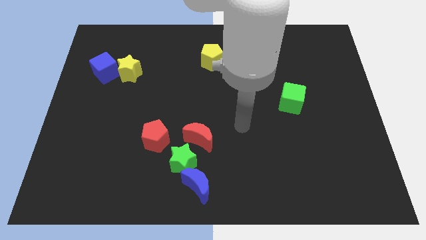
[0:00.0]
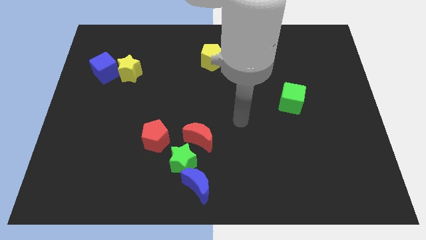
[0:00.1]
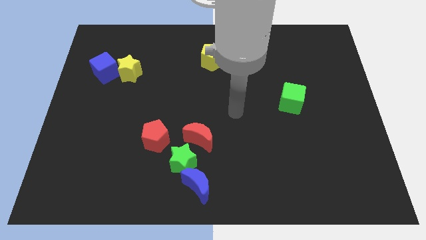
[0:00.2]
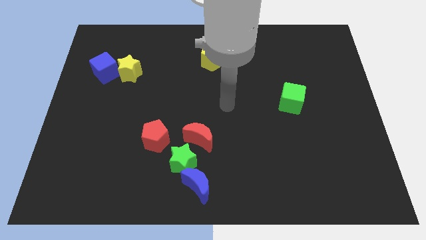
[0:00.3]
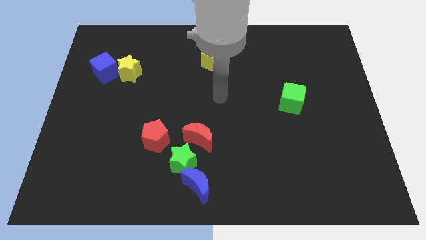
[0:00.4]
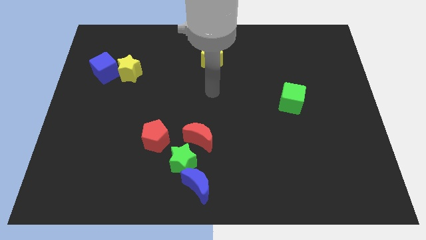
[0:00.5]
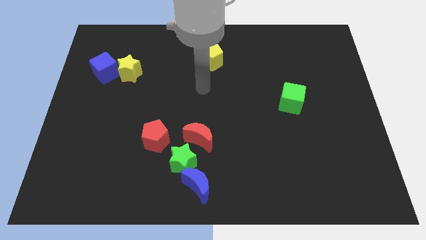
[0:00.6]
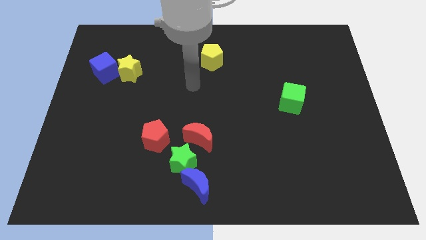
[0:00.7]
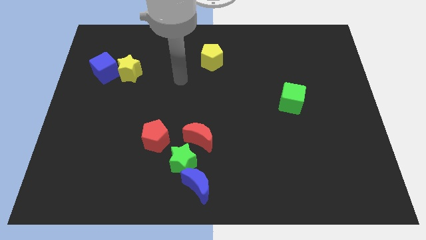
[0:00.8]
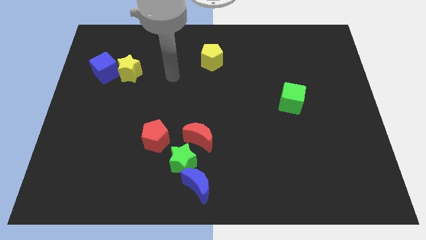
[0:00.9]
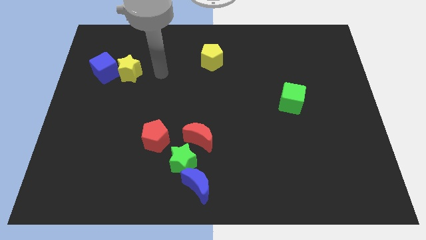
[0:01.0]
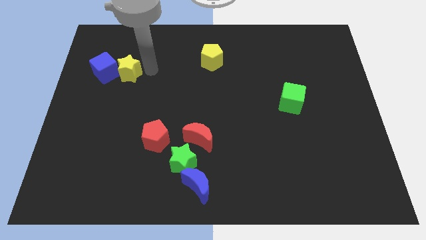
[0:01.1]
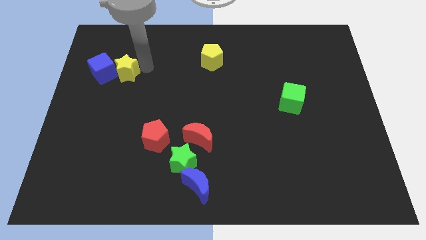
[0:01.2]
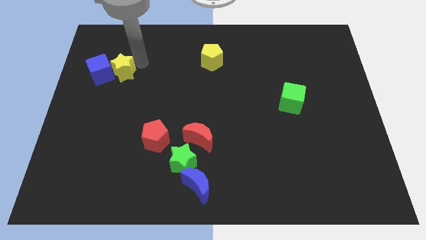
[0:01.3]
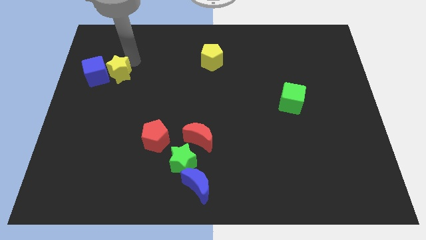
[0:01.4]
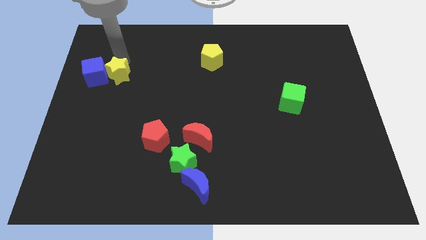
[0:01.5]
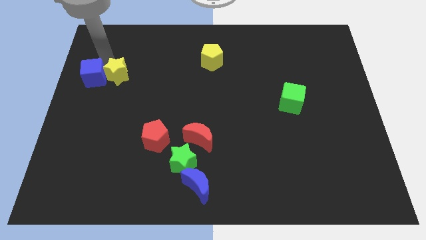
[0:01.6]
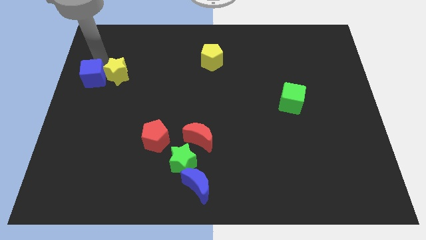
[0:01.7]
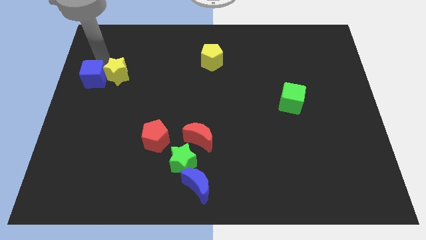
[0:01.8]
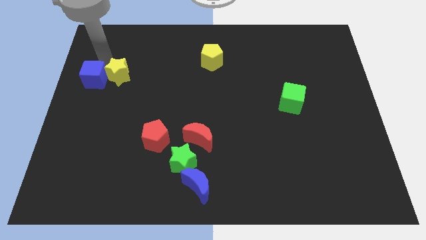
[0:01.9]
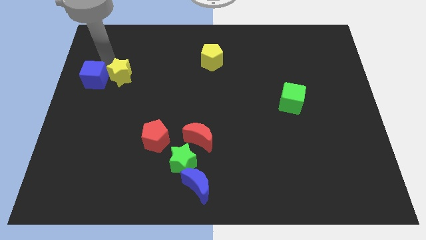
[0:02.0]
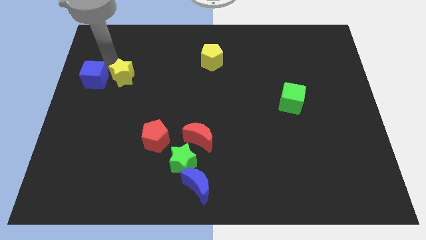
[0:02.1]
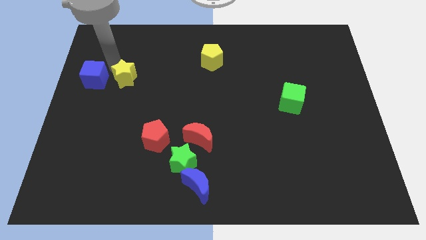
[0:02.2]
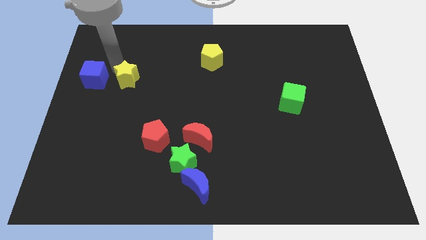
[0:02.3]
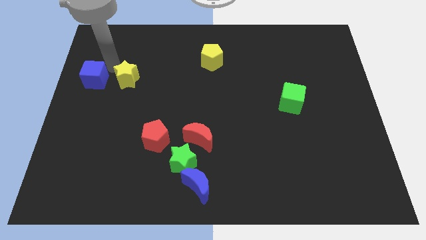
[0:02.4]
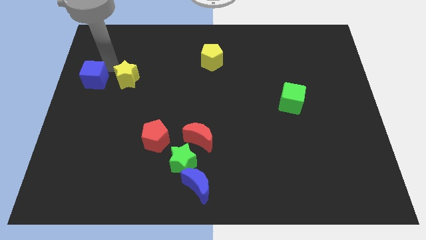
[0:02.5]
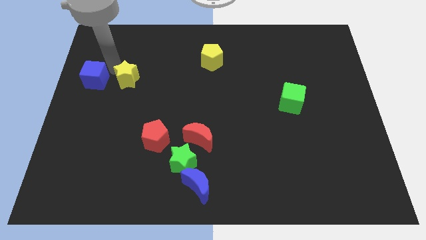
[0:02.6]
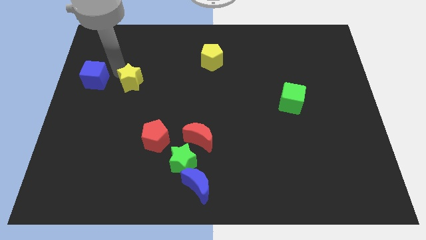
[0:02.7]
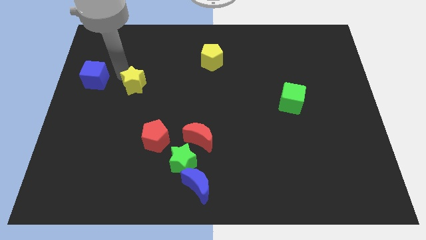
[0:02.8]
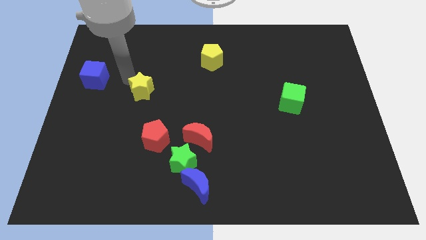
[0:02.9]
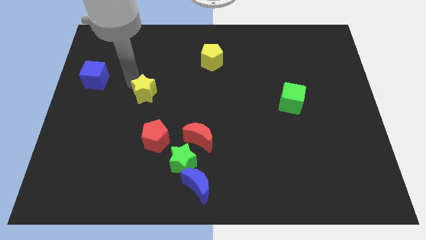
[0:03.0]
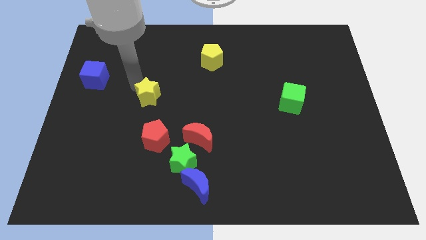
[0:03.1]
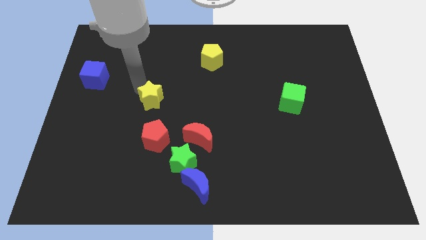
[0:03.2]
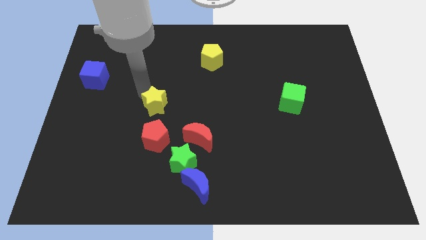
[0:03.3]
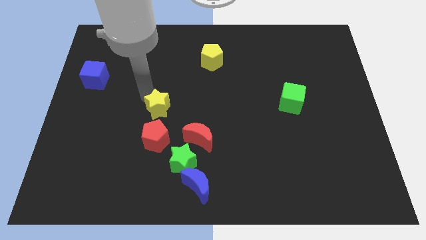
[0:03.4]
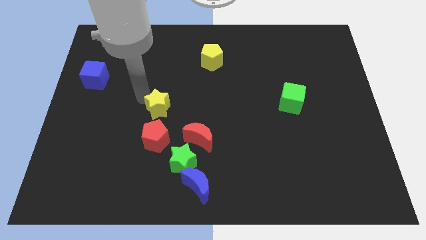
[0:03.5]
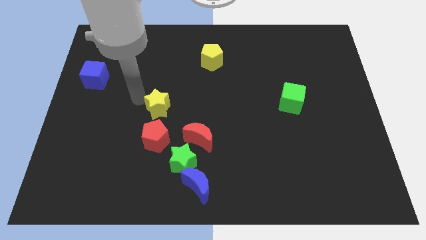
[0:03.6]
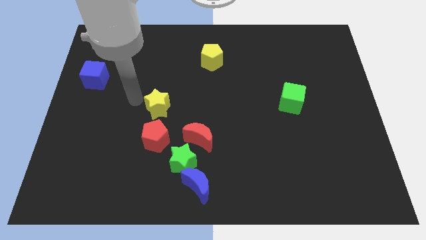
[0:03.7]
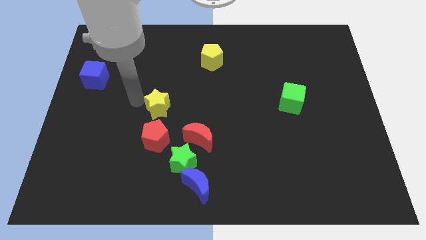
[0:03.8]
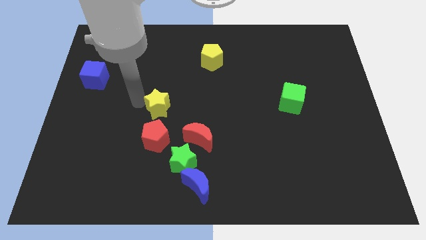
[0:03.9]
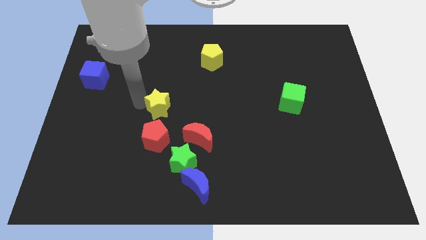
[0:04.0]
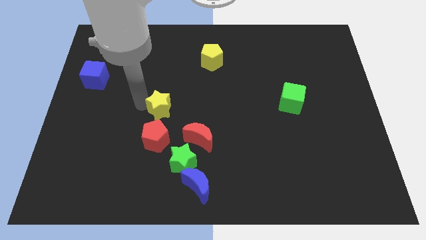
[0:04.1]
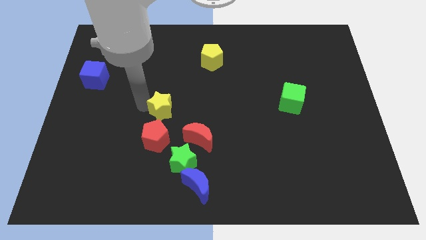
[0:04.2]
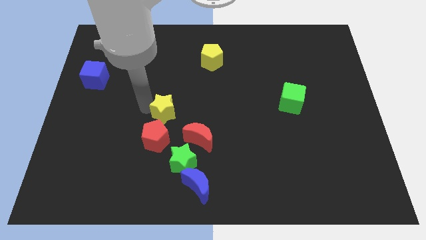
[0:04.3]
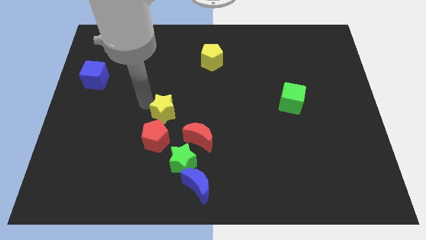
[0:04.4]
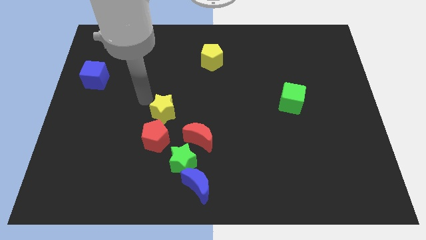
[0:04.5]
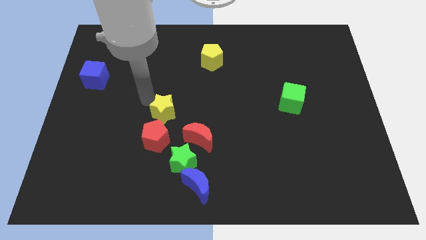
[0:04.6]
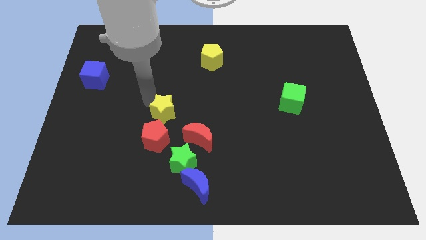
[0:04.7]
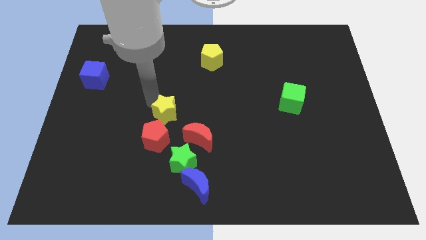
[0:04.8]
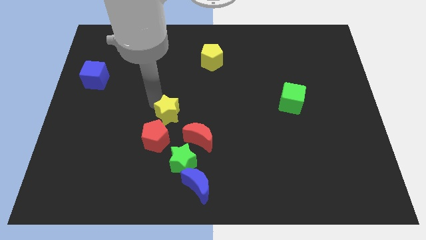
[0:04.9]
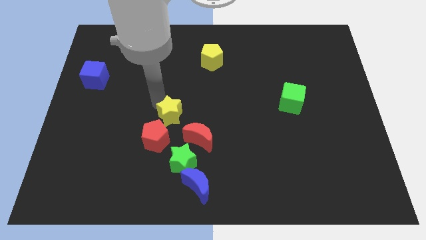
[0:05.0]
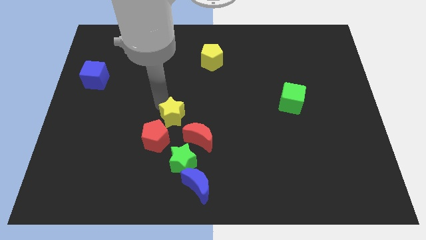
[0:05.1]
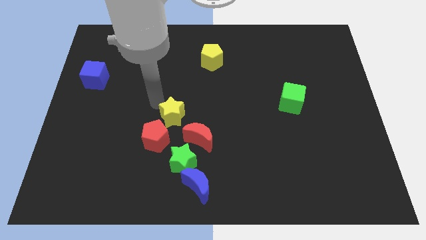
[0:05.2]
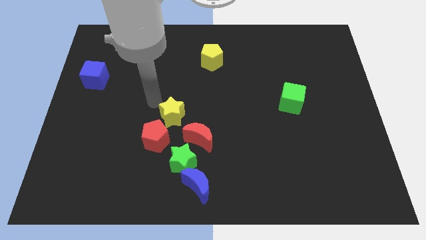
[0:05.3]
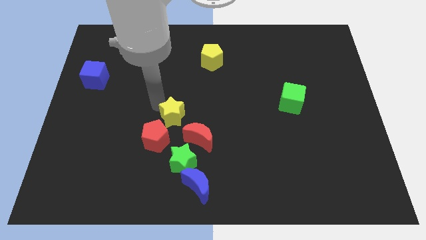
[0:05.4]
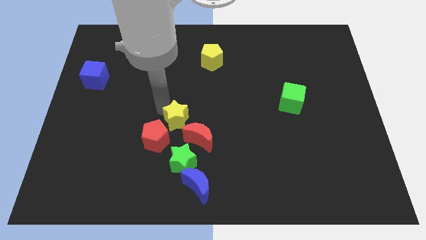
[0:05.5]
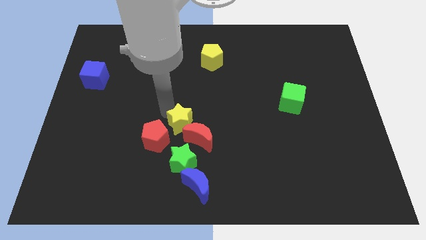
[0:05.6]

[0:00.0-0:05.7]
move the yellow star towards the red moon

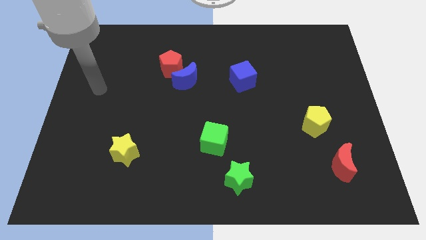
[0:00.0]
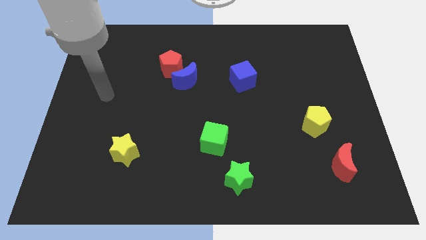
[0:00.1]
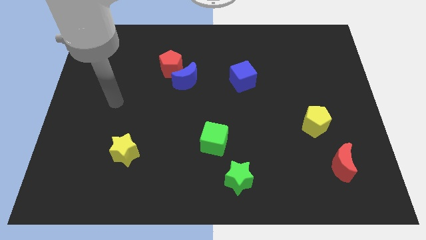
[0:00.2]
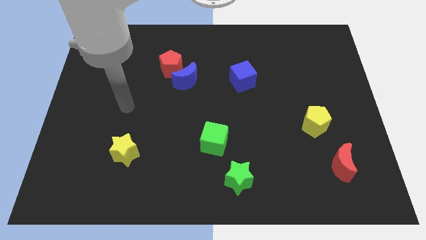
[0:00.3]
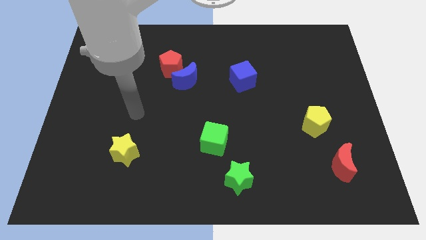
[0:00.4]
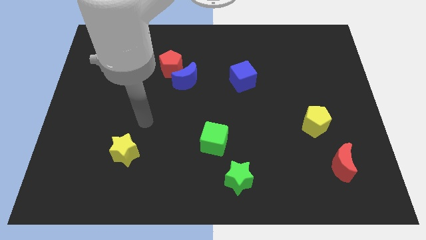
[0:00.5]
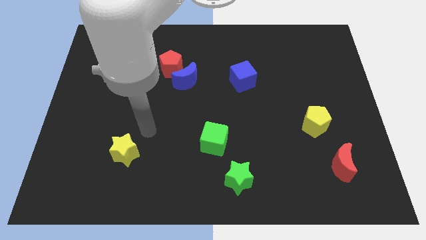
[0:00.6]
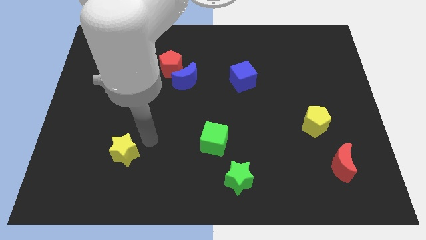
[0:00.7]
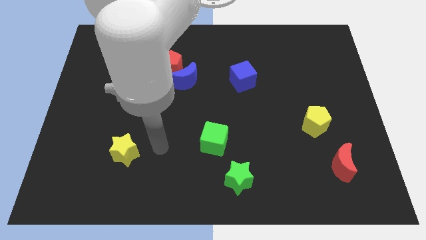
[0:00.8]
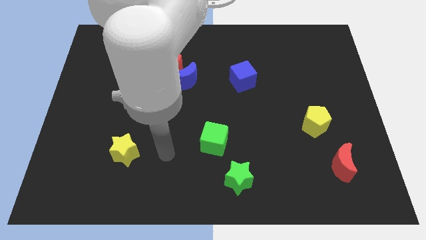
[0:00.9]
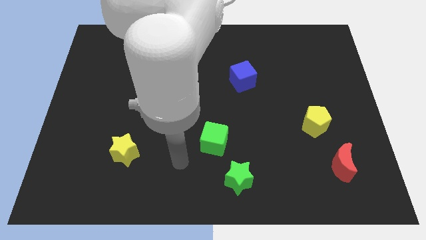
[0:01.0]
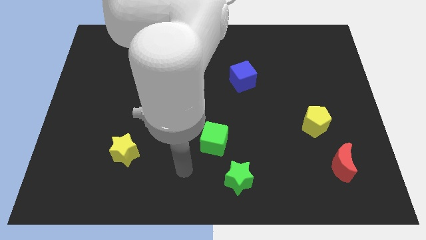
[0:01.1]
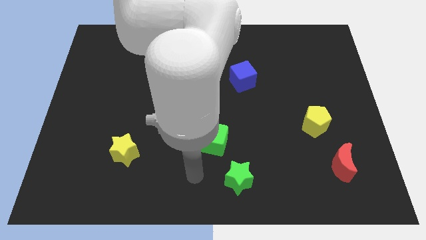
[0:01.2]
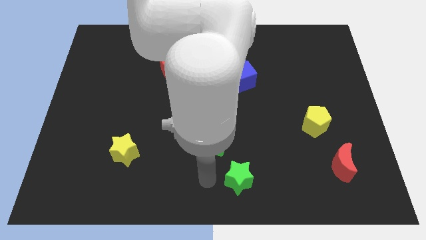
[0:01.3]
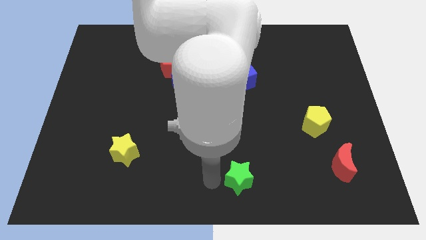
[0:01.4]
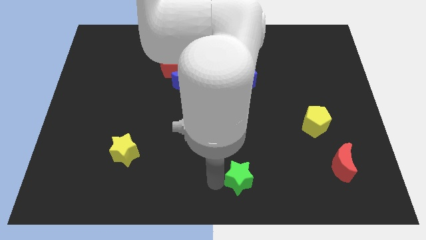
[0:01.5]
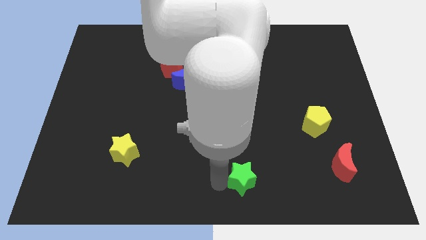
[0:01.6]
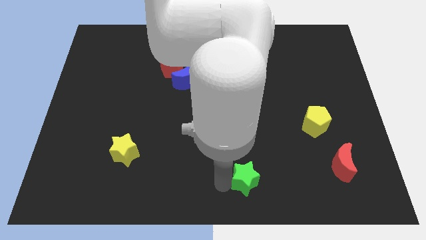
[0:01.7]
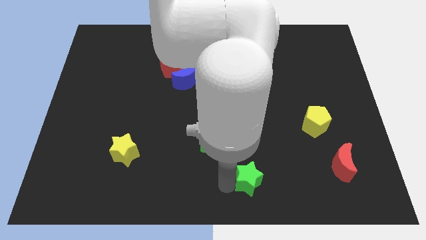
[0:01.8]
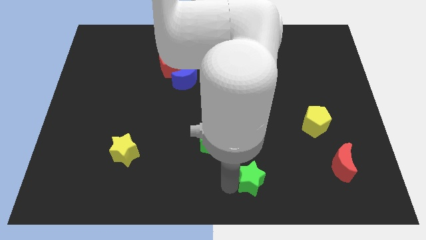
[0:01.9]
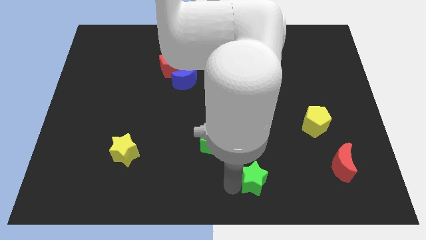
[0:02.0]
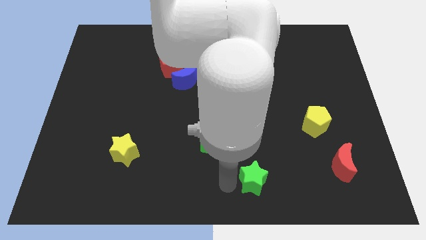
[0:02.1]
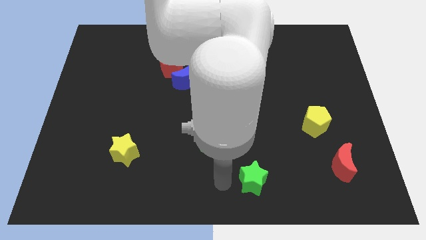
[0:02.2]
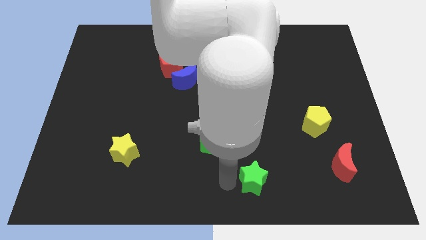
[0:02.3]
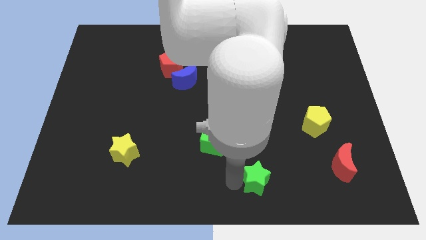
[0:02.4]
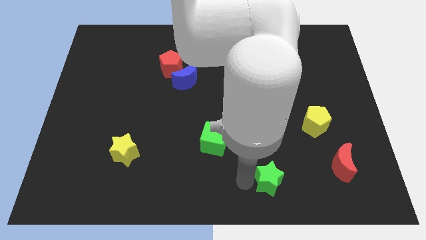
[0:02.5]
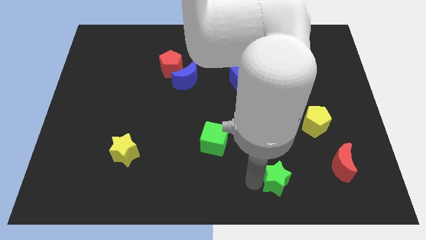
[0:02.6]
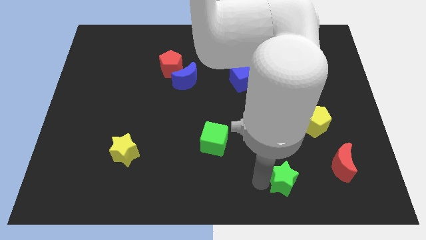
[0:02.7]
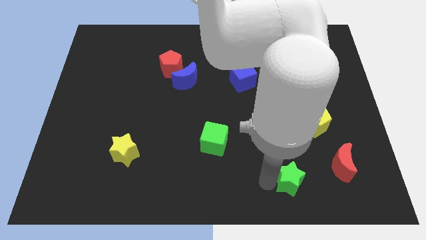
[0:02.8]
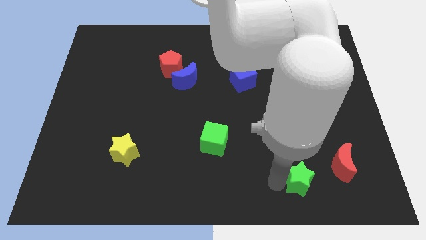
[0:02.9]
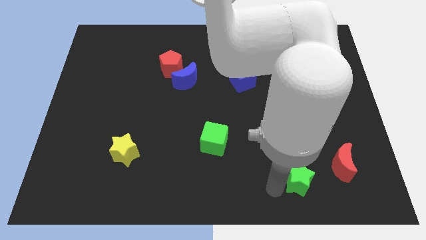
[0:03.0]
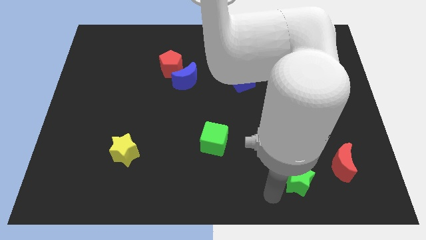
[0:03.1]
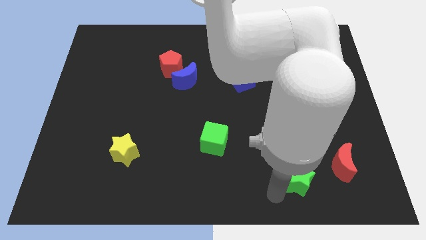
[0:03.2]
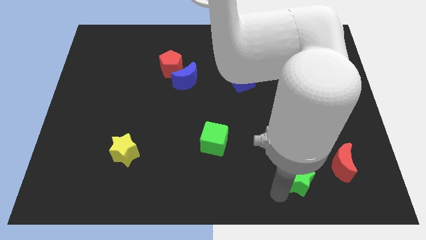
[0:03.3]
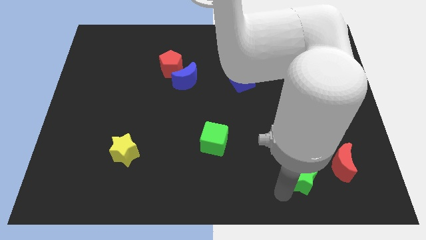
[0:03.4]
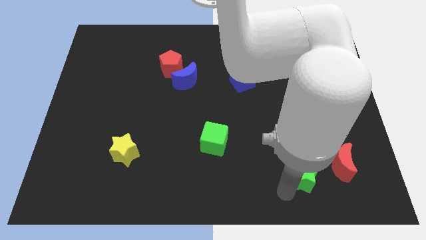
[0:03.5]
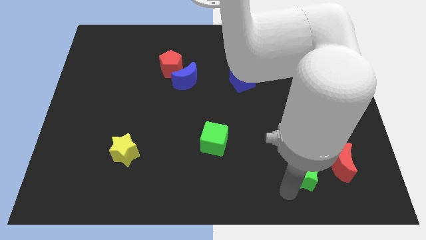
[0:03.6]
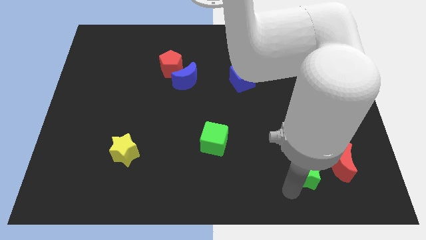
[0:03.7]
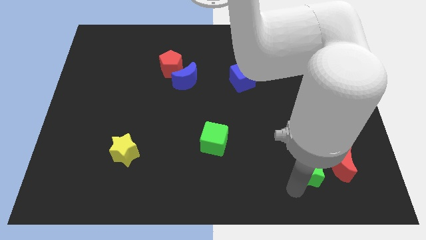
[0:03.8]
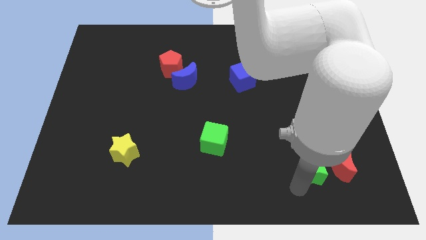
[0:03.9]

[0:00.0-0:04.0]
put the green star towards the red moon
